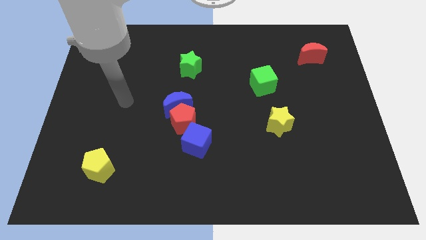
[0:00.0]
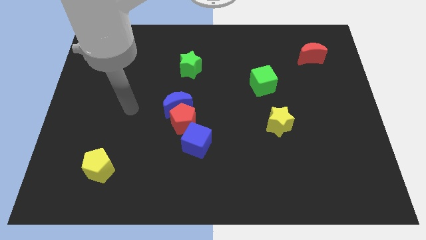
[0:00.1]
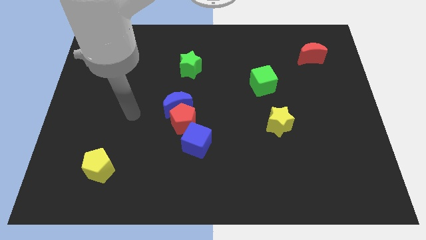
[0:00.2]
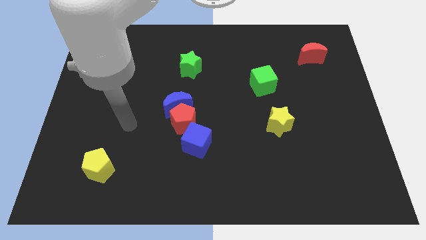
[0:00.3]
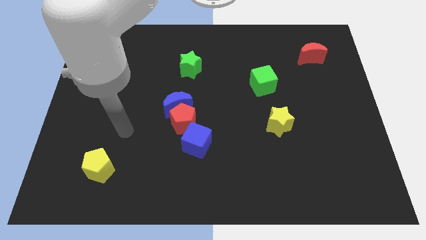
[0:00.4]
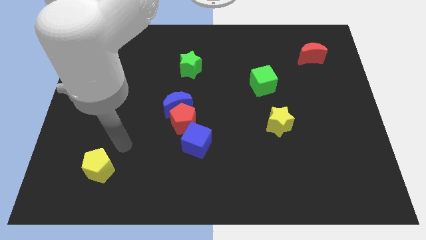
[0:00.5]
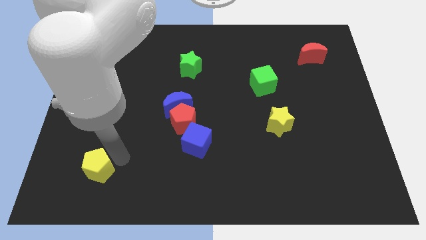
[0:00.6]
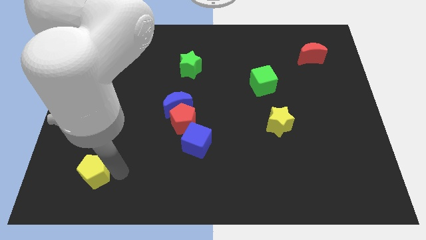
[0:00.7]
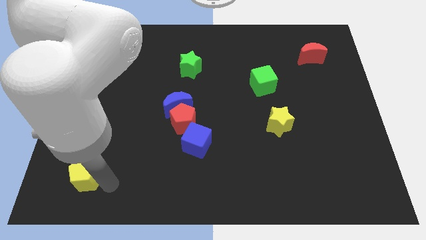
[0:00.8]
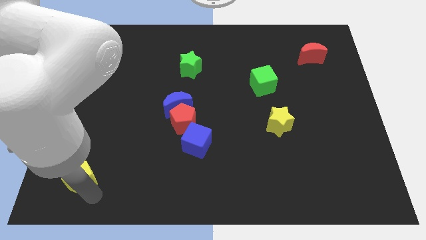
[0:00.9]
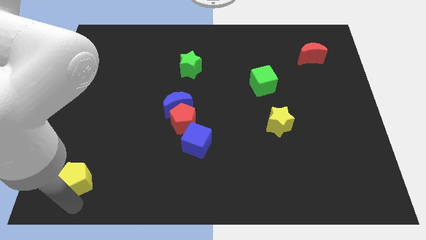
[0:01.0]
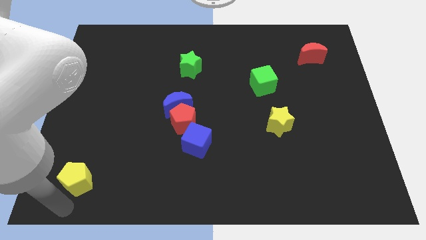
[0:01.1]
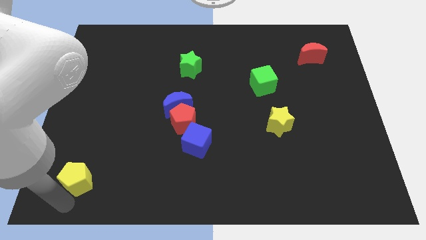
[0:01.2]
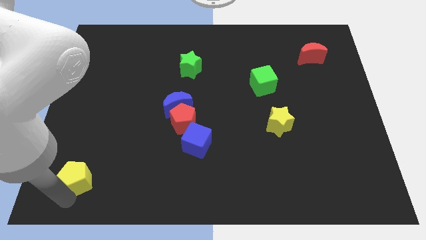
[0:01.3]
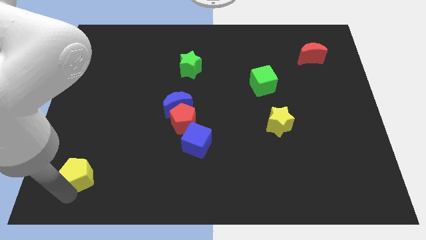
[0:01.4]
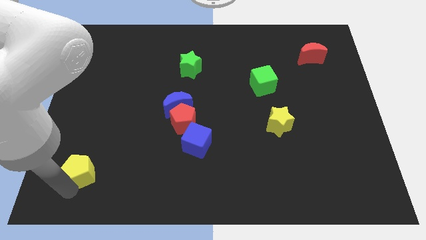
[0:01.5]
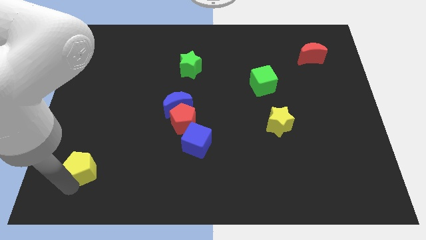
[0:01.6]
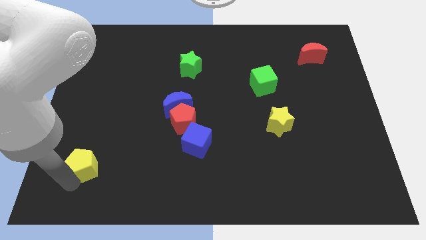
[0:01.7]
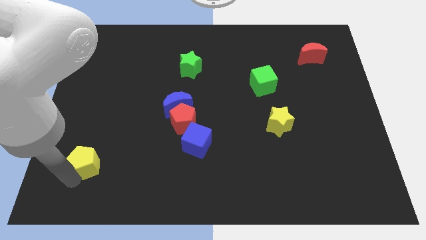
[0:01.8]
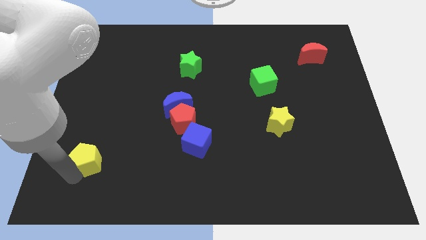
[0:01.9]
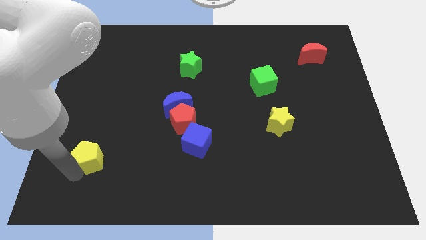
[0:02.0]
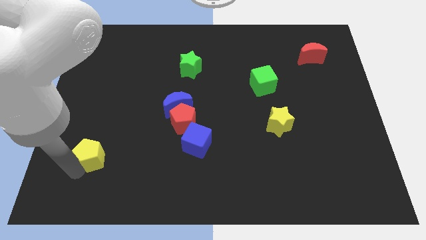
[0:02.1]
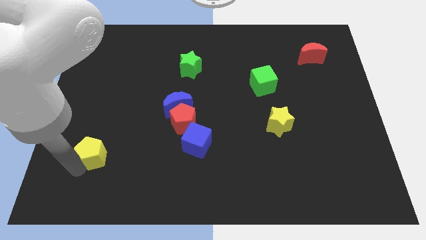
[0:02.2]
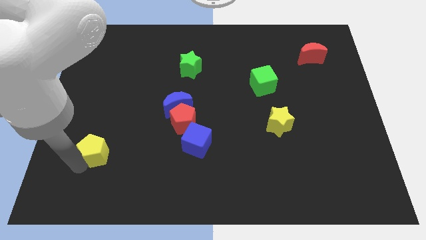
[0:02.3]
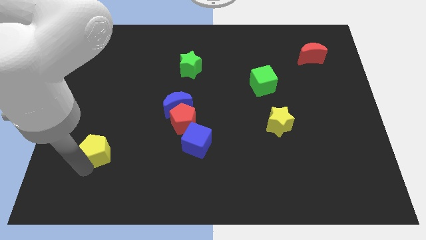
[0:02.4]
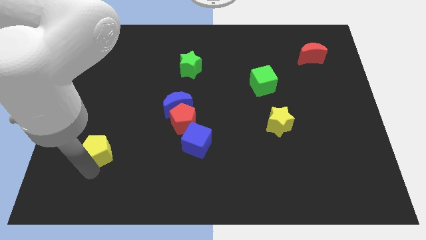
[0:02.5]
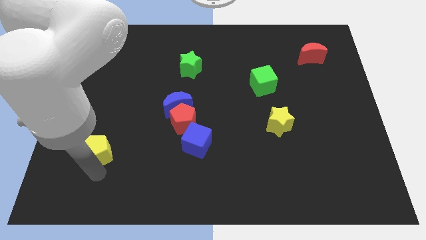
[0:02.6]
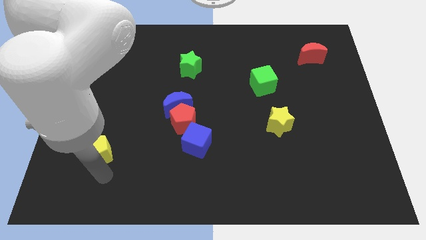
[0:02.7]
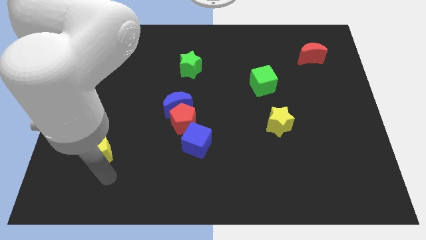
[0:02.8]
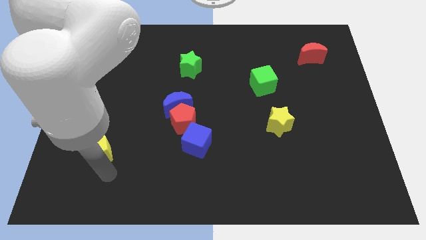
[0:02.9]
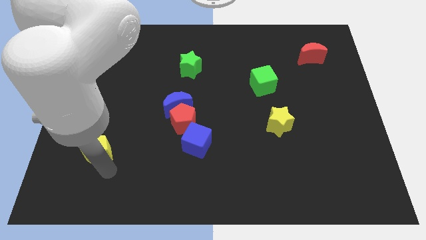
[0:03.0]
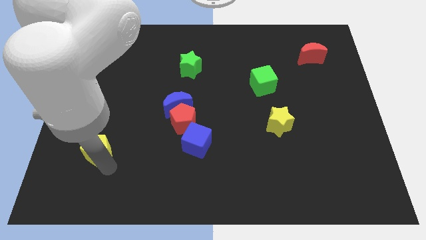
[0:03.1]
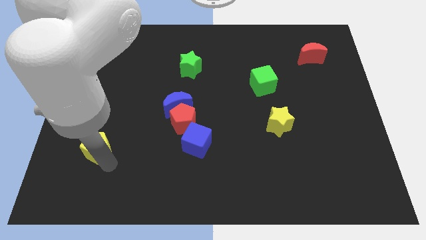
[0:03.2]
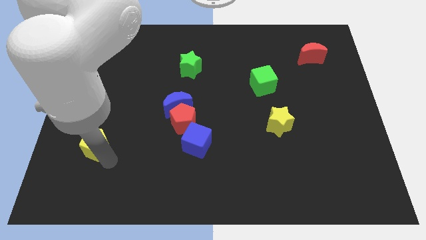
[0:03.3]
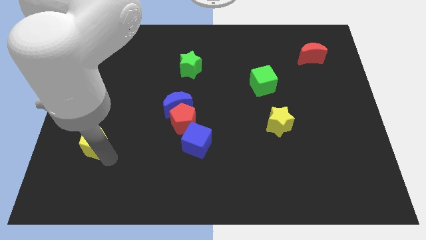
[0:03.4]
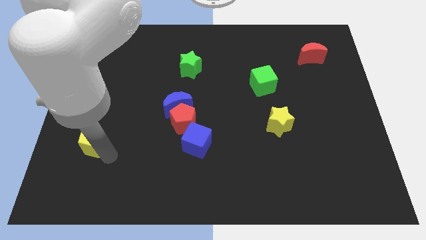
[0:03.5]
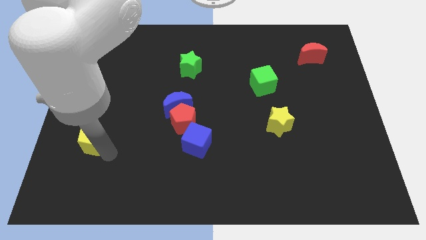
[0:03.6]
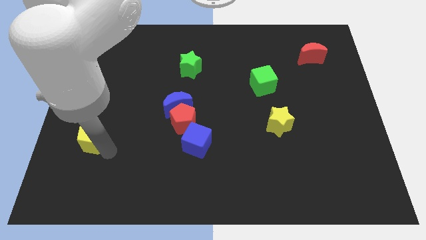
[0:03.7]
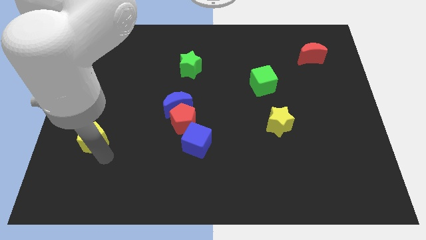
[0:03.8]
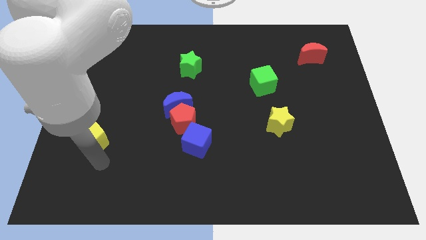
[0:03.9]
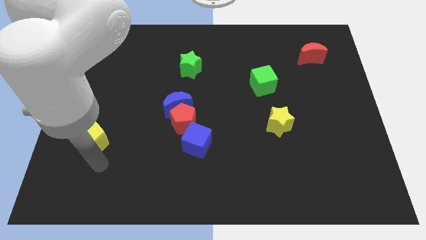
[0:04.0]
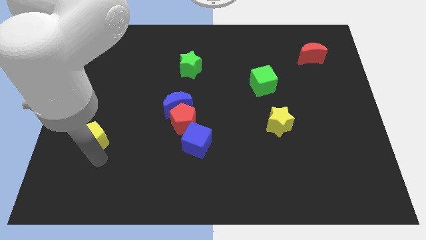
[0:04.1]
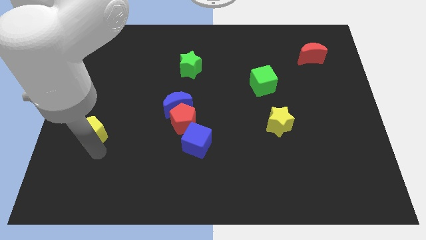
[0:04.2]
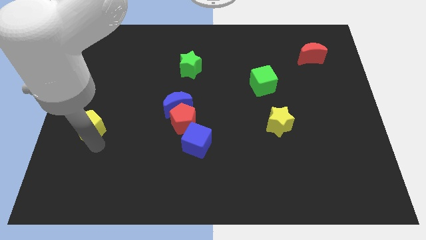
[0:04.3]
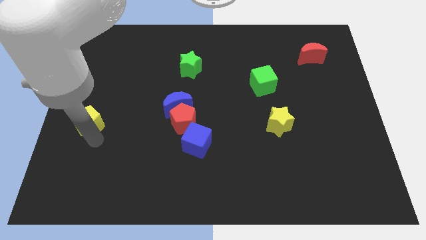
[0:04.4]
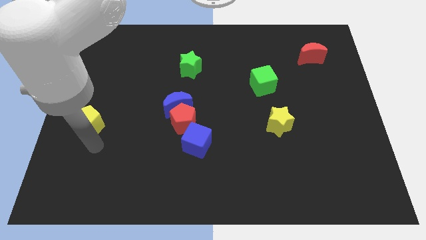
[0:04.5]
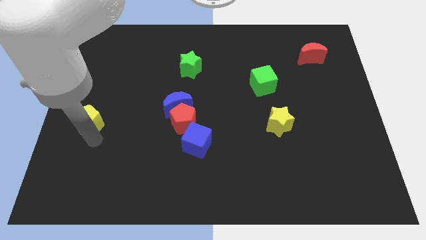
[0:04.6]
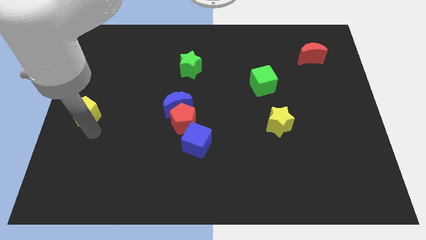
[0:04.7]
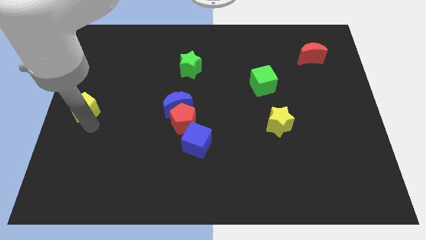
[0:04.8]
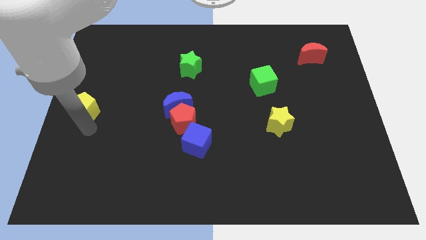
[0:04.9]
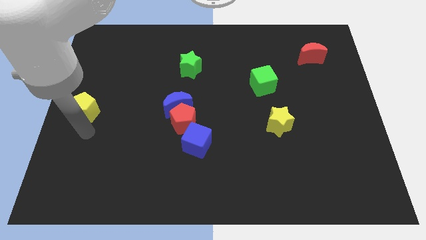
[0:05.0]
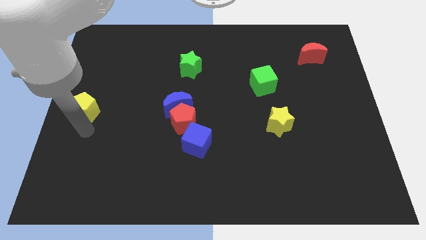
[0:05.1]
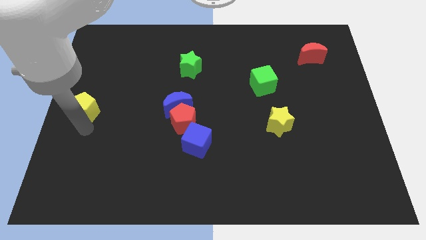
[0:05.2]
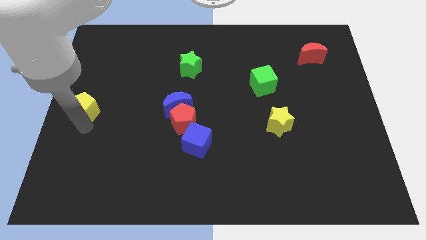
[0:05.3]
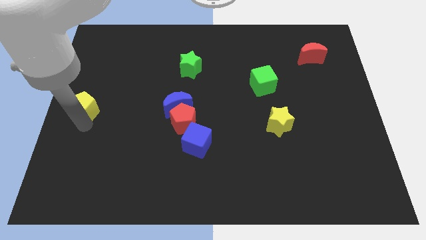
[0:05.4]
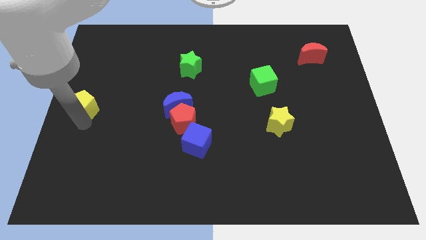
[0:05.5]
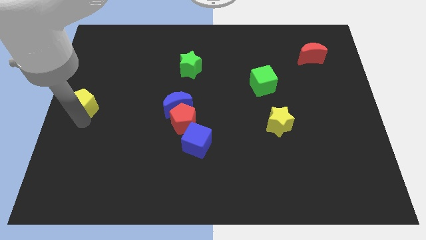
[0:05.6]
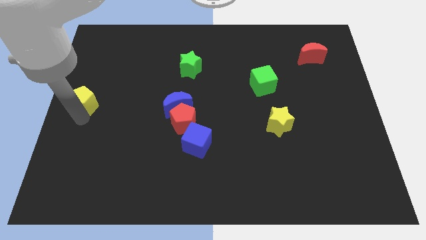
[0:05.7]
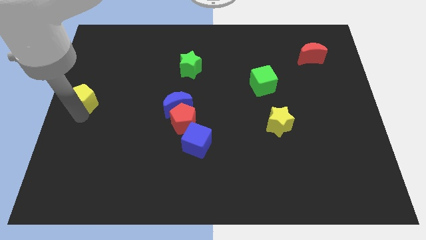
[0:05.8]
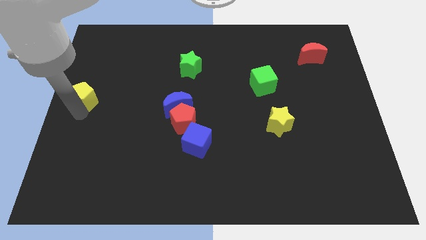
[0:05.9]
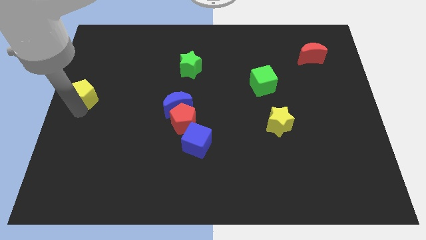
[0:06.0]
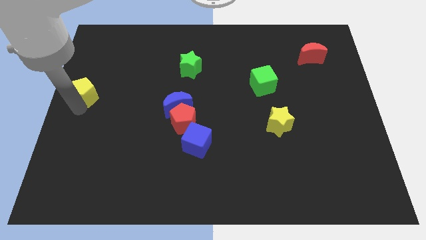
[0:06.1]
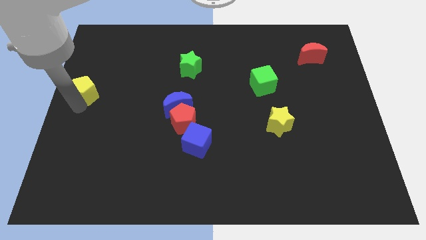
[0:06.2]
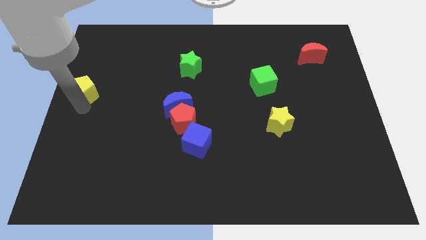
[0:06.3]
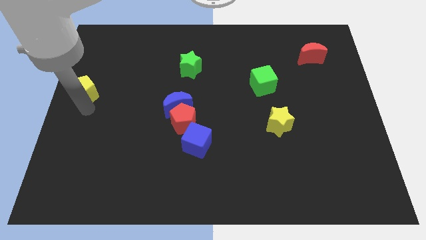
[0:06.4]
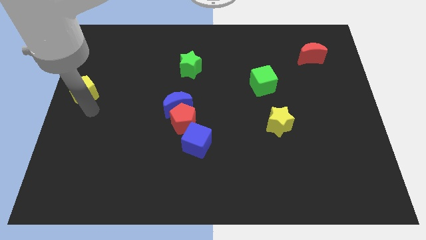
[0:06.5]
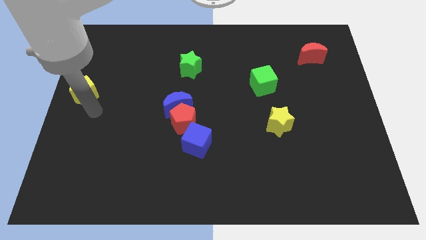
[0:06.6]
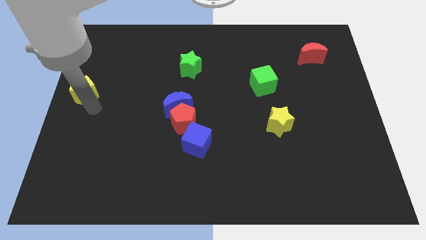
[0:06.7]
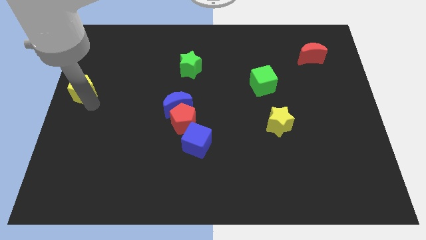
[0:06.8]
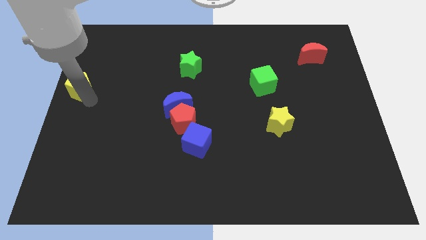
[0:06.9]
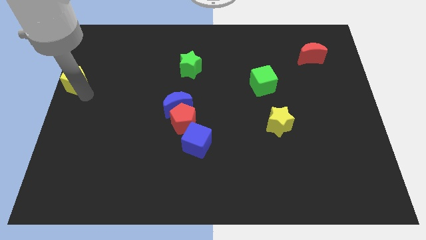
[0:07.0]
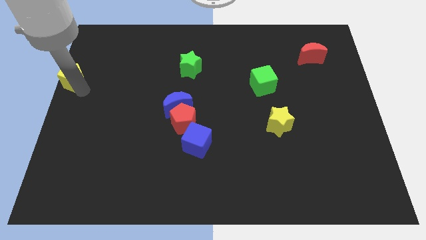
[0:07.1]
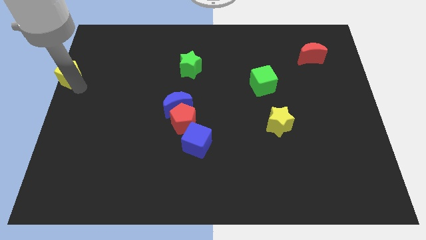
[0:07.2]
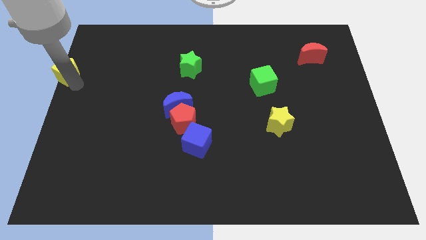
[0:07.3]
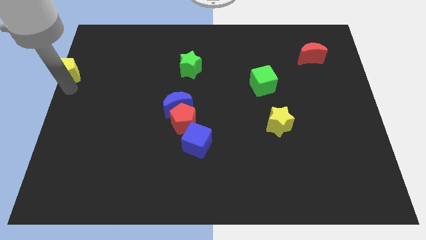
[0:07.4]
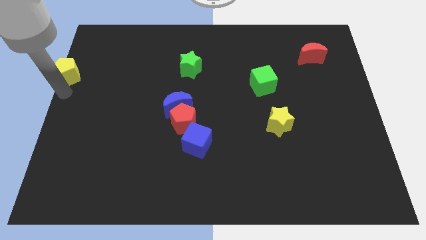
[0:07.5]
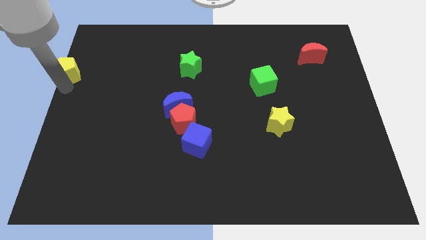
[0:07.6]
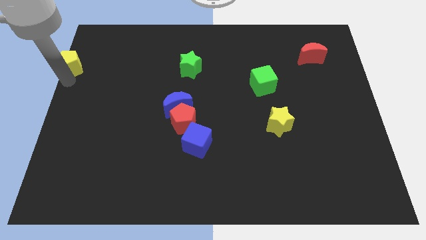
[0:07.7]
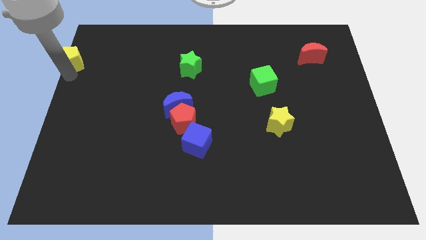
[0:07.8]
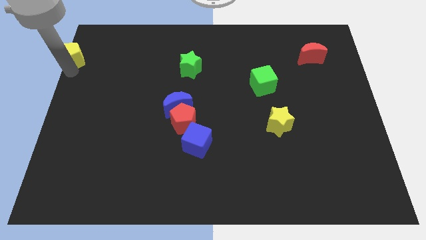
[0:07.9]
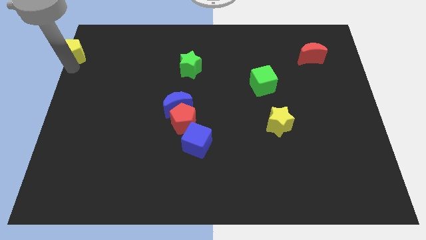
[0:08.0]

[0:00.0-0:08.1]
move the yellow pentagon to the top left corner
